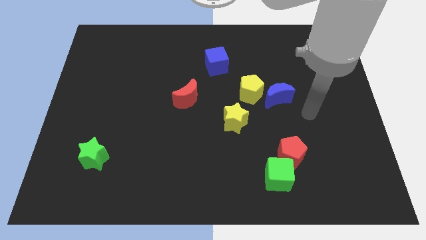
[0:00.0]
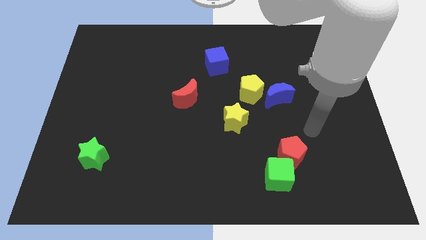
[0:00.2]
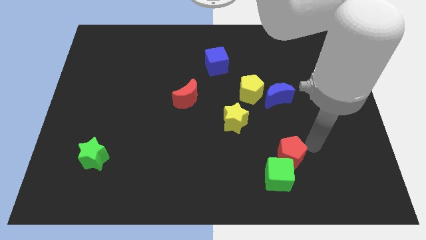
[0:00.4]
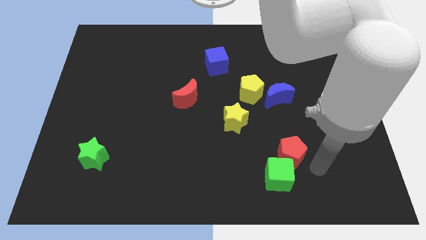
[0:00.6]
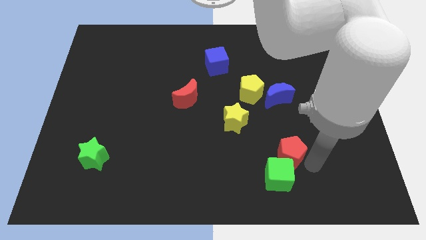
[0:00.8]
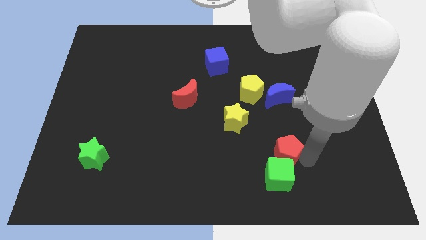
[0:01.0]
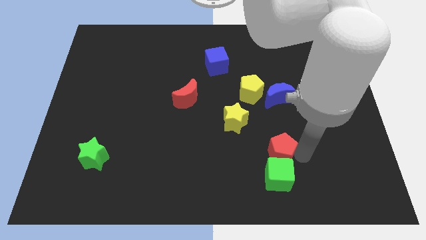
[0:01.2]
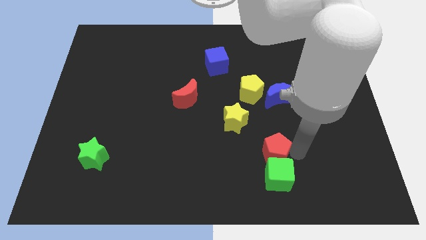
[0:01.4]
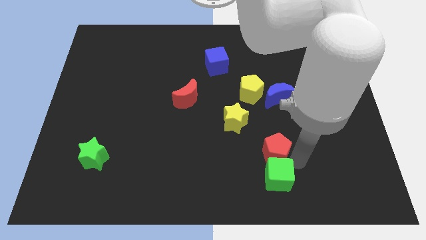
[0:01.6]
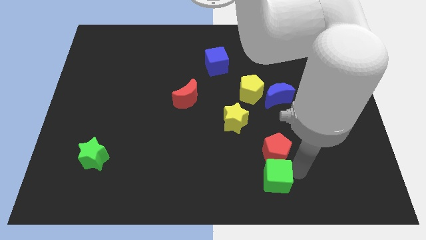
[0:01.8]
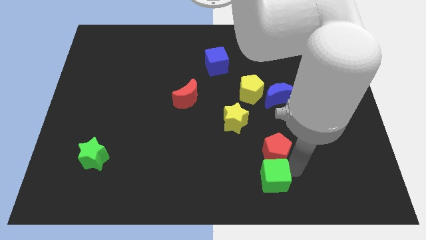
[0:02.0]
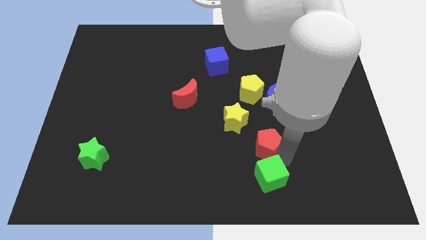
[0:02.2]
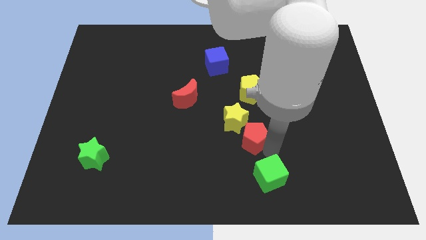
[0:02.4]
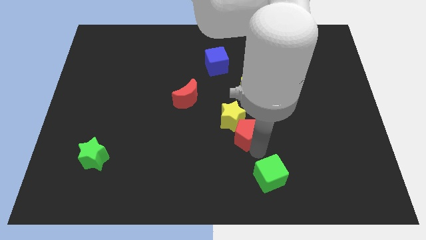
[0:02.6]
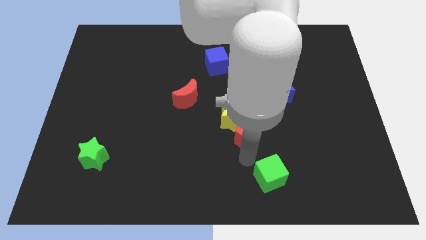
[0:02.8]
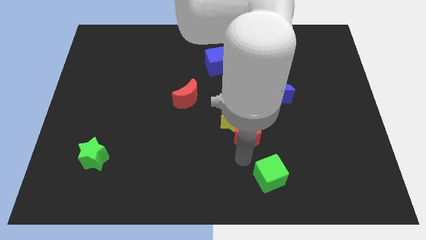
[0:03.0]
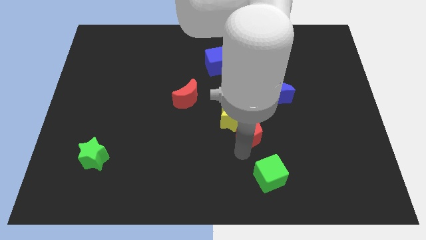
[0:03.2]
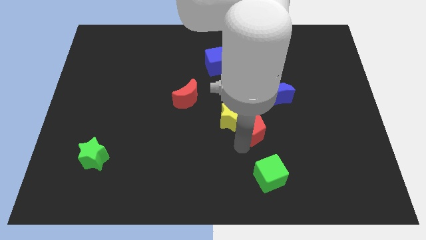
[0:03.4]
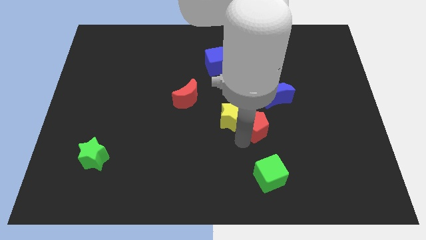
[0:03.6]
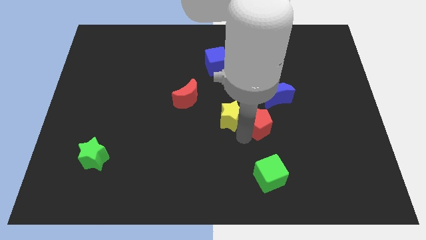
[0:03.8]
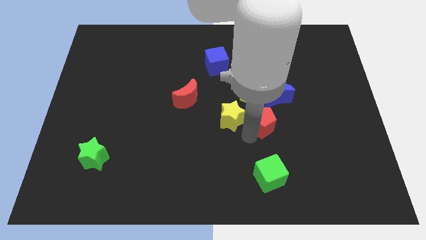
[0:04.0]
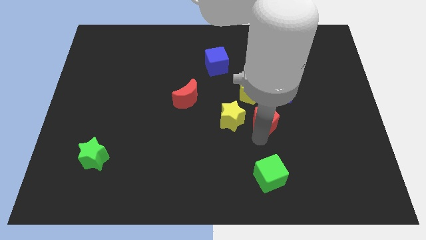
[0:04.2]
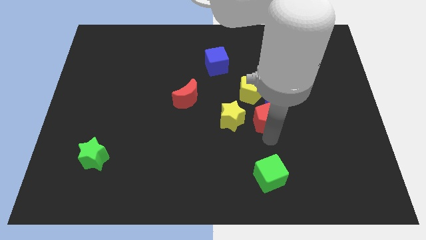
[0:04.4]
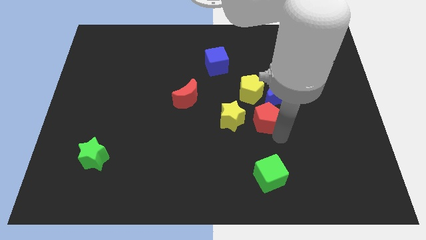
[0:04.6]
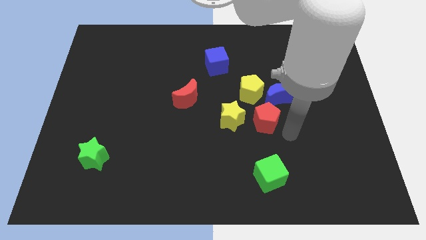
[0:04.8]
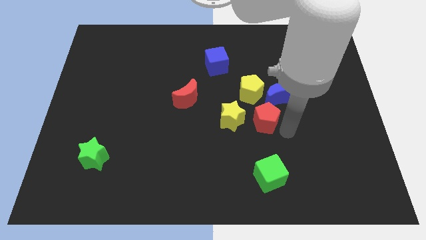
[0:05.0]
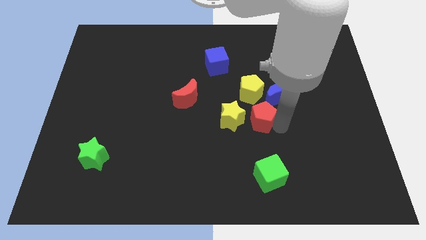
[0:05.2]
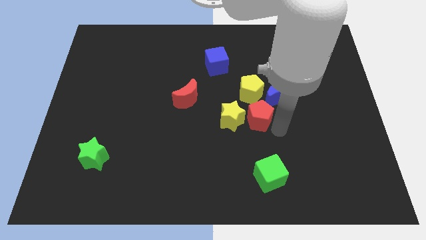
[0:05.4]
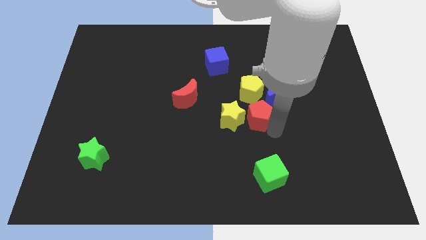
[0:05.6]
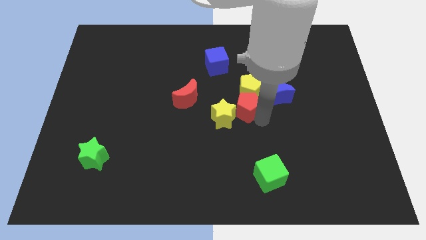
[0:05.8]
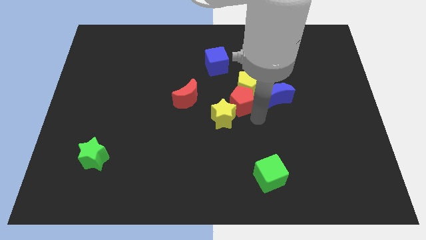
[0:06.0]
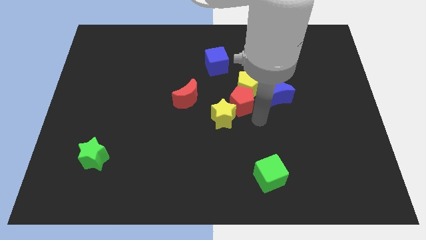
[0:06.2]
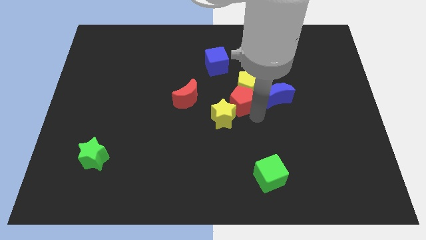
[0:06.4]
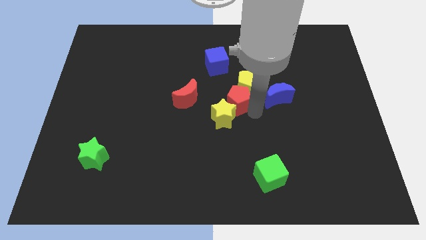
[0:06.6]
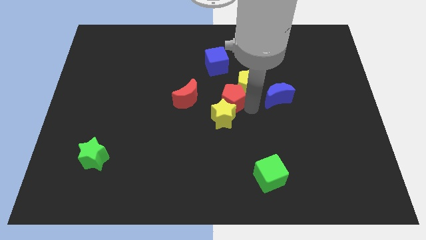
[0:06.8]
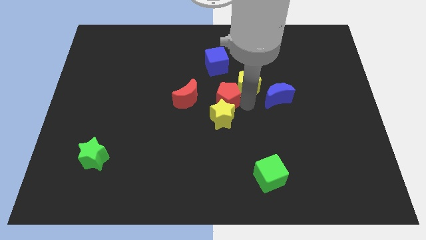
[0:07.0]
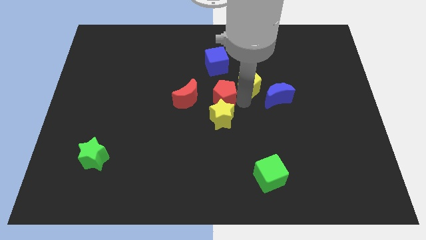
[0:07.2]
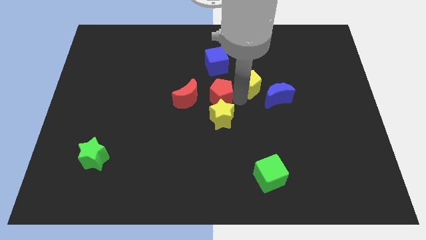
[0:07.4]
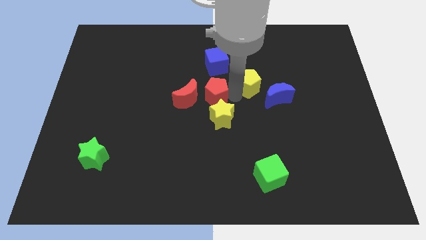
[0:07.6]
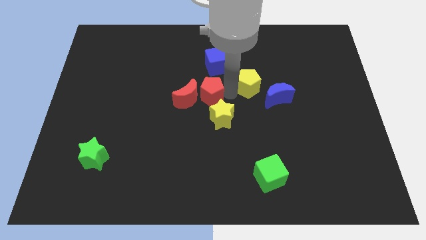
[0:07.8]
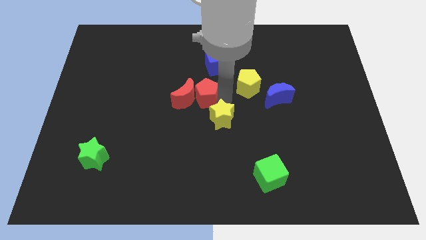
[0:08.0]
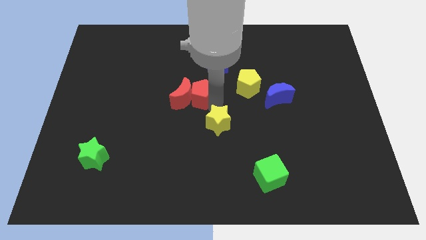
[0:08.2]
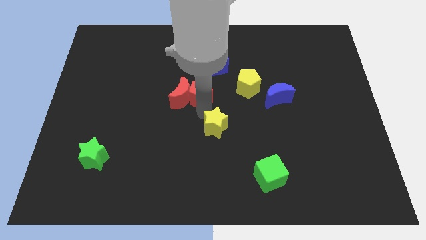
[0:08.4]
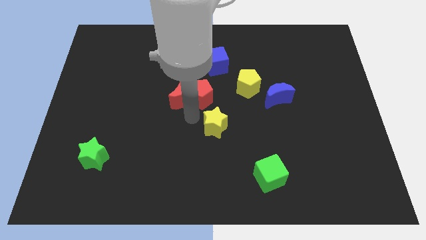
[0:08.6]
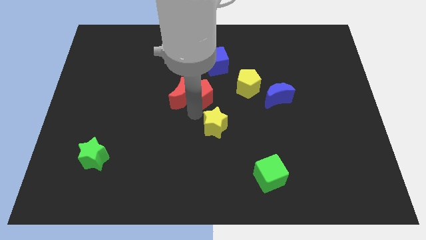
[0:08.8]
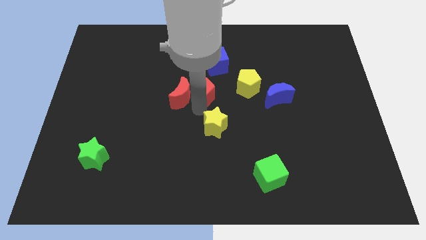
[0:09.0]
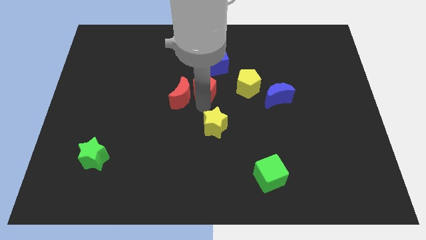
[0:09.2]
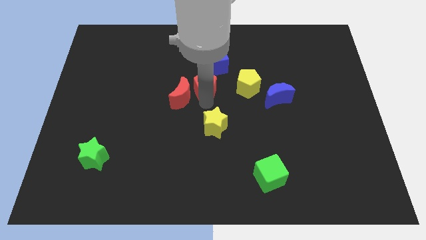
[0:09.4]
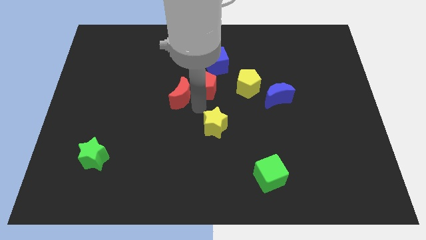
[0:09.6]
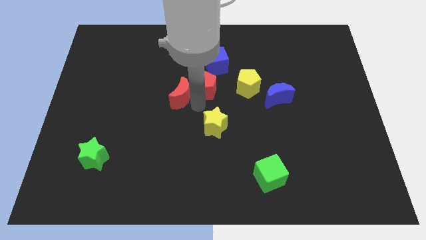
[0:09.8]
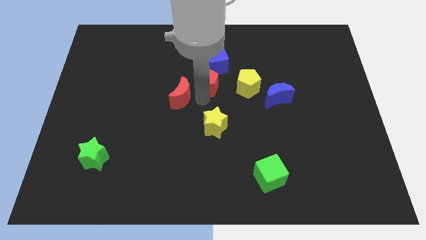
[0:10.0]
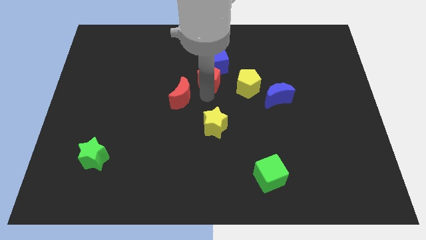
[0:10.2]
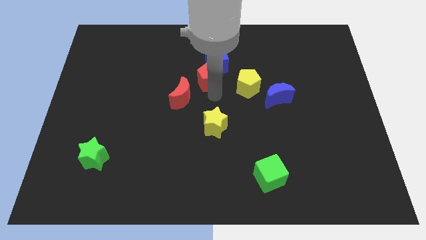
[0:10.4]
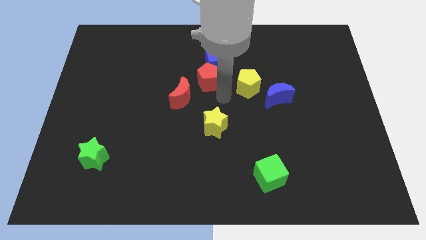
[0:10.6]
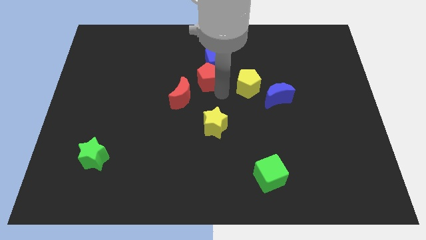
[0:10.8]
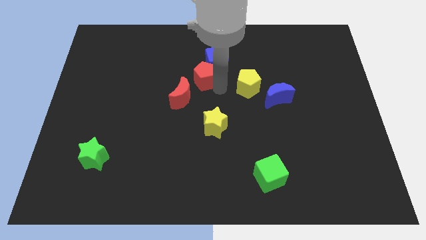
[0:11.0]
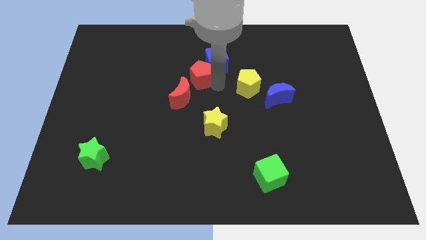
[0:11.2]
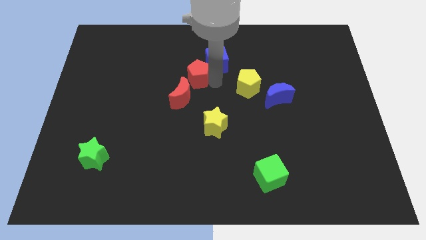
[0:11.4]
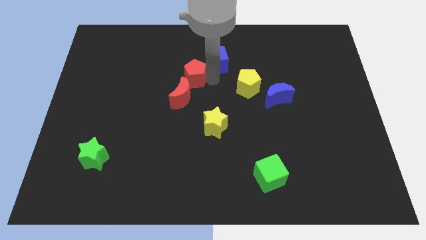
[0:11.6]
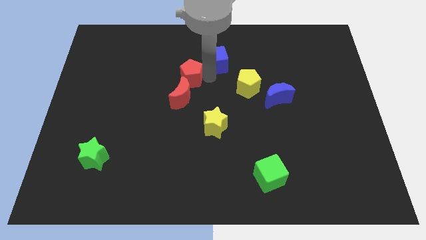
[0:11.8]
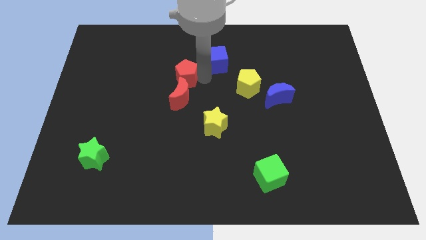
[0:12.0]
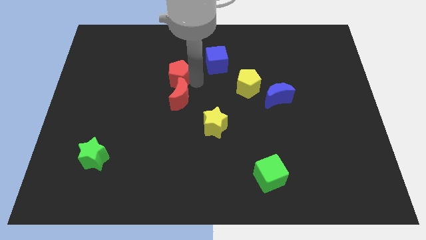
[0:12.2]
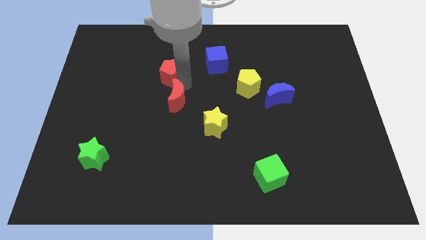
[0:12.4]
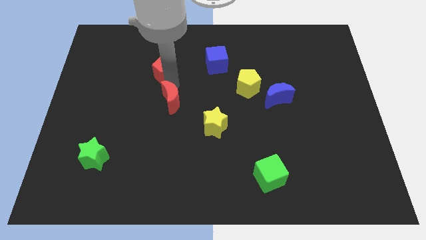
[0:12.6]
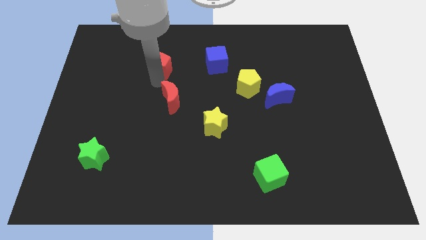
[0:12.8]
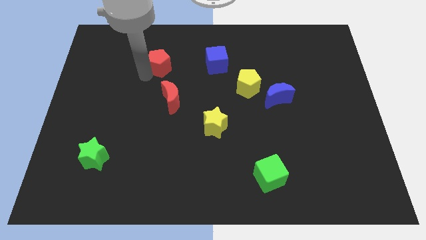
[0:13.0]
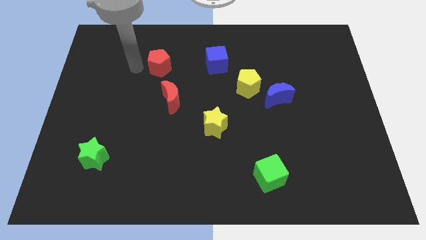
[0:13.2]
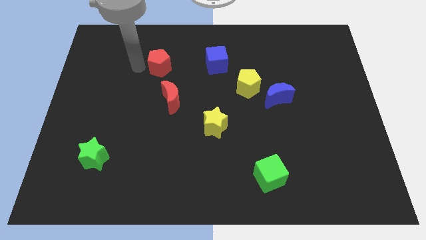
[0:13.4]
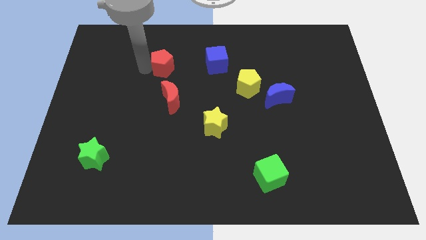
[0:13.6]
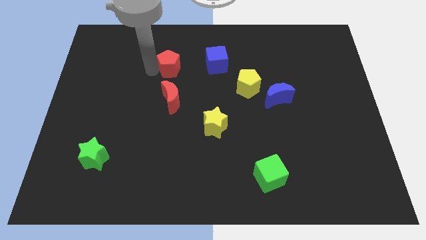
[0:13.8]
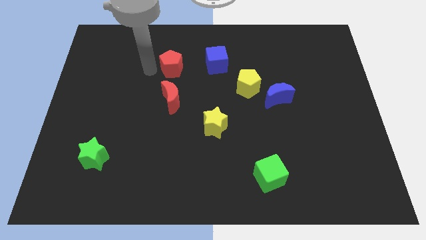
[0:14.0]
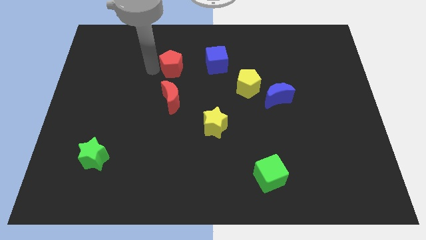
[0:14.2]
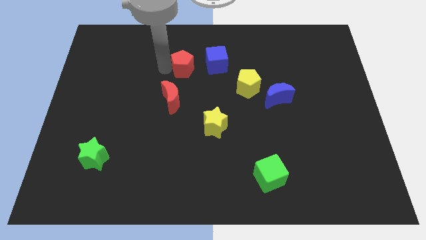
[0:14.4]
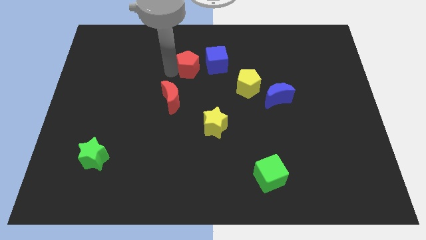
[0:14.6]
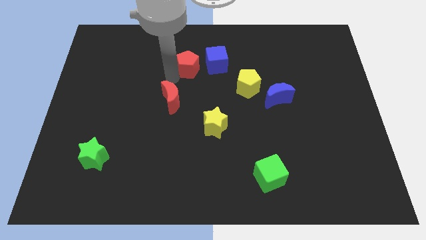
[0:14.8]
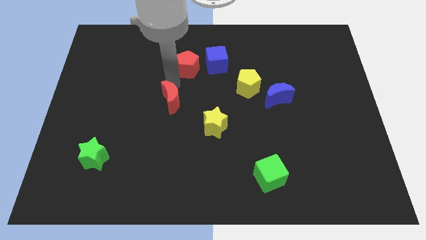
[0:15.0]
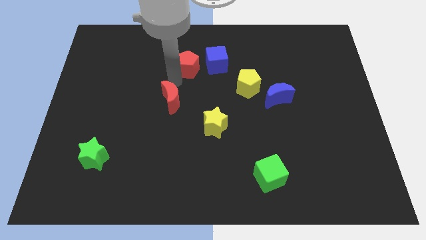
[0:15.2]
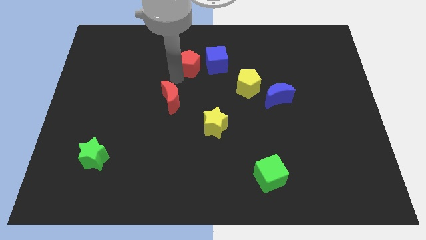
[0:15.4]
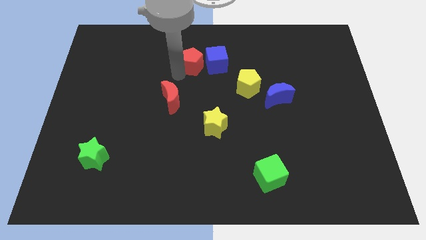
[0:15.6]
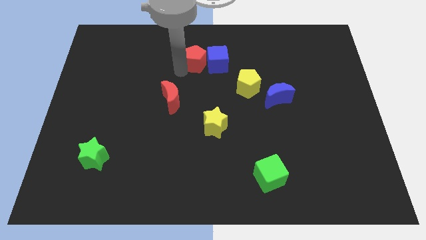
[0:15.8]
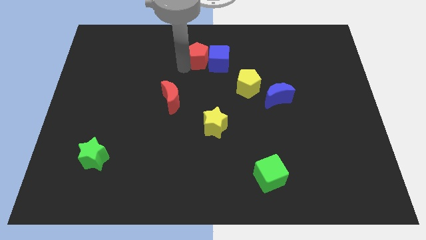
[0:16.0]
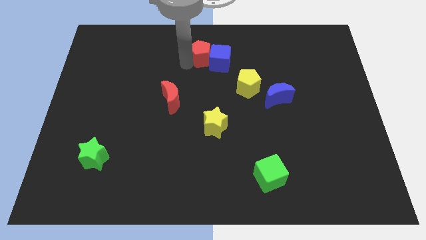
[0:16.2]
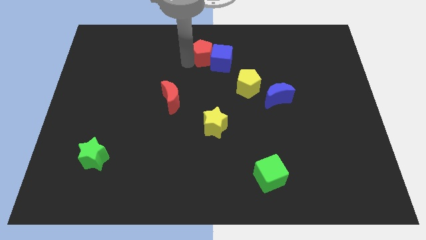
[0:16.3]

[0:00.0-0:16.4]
put the red pentagon to the top side
